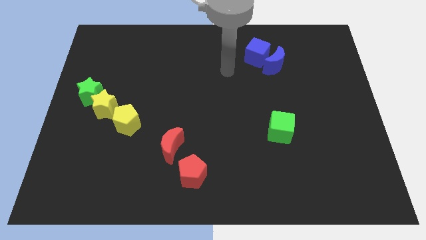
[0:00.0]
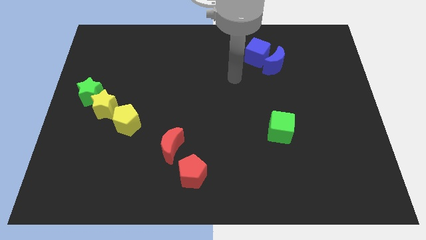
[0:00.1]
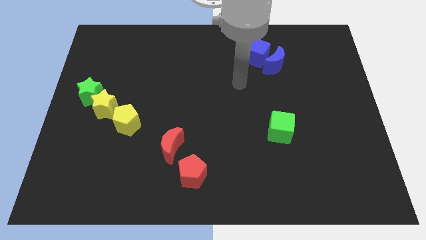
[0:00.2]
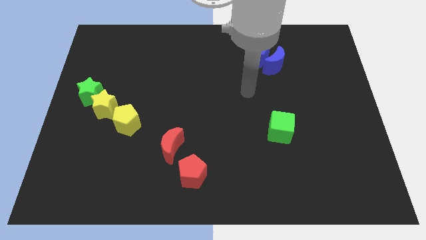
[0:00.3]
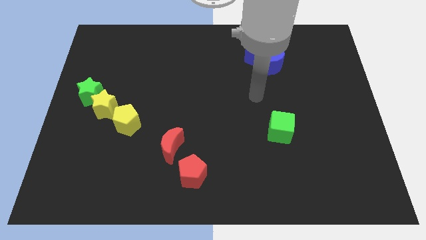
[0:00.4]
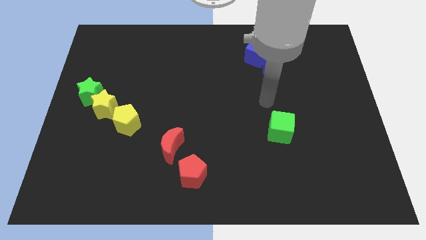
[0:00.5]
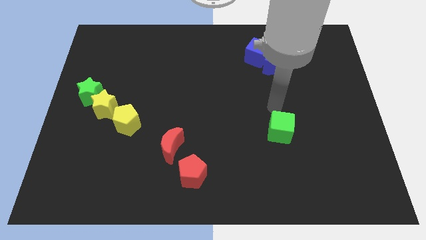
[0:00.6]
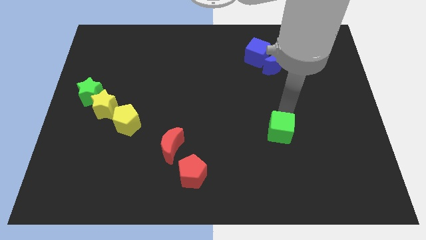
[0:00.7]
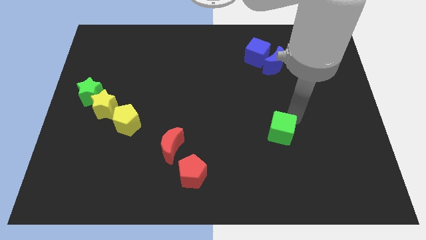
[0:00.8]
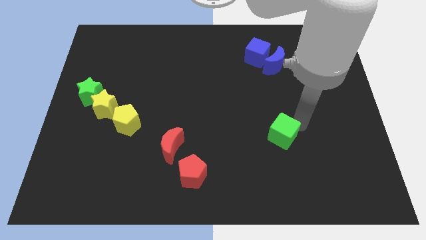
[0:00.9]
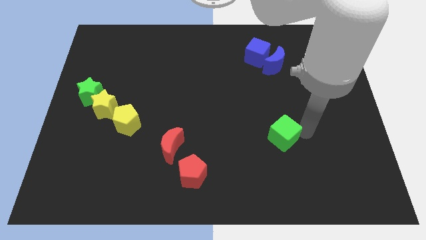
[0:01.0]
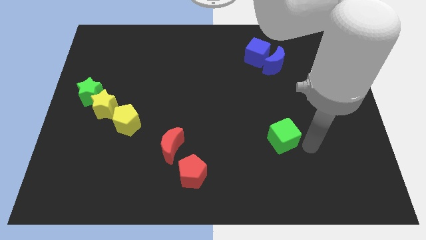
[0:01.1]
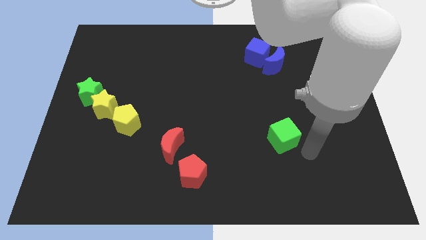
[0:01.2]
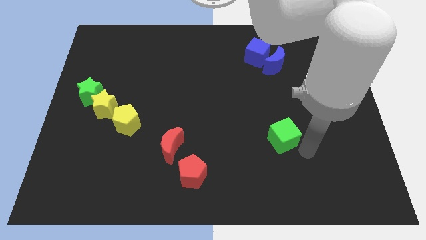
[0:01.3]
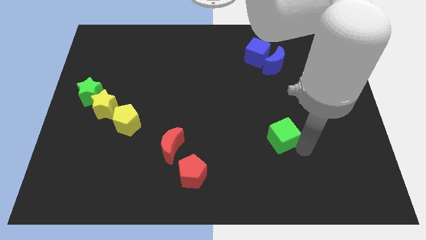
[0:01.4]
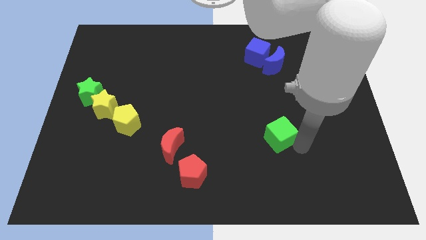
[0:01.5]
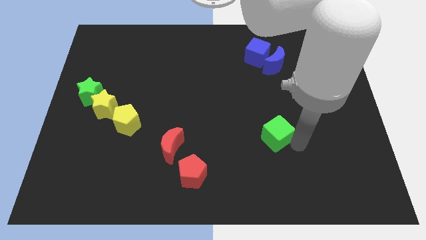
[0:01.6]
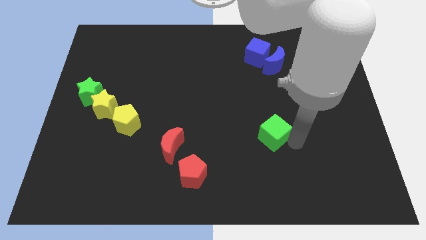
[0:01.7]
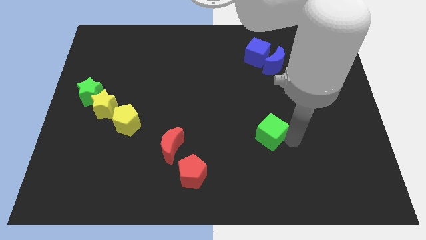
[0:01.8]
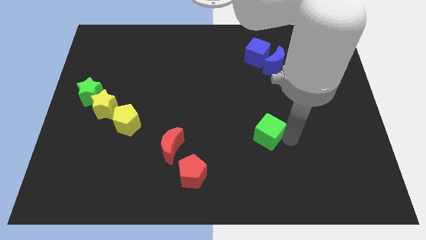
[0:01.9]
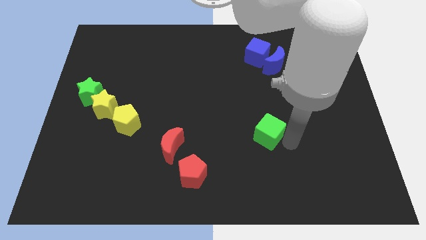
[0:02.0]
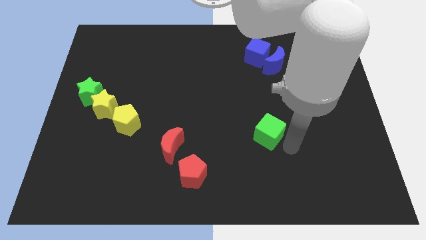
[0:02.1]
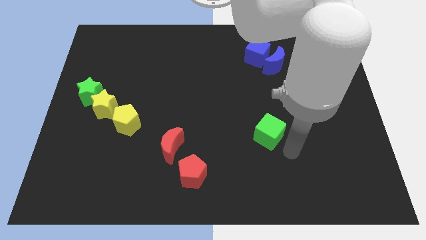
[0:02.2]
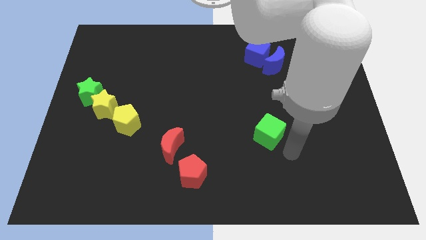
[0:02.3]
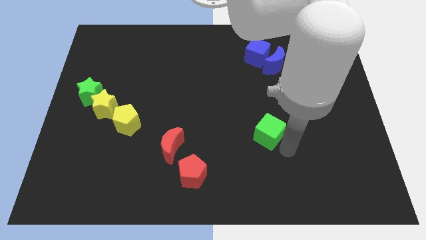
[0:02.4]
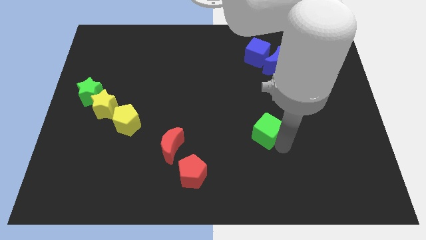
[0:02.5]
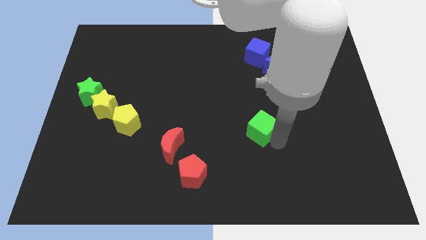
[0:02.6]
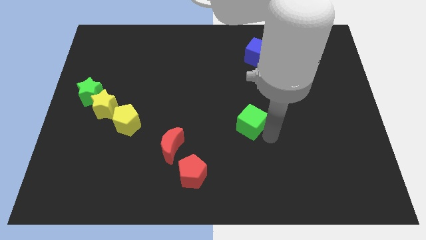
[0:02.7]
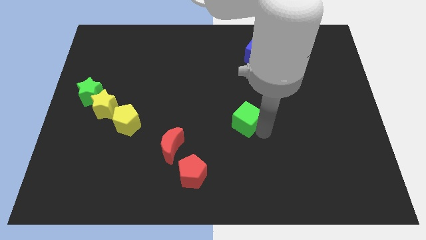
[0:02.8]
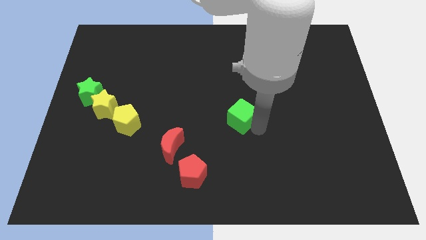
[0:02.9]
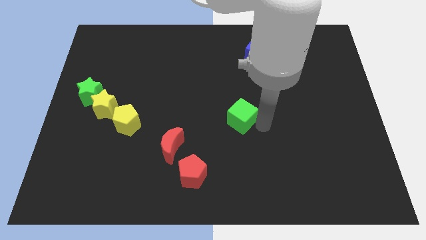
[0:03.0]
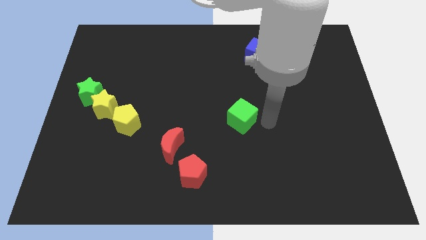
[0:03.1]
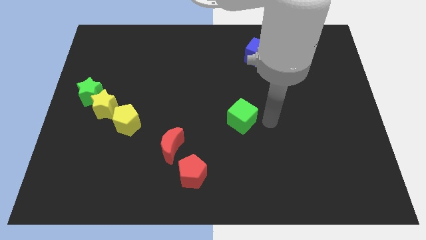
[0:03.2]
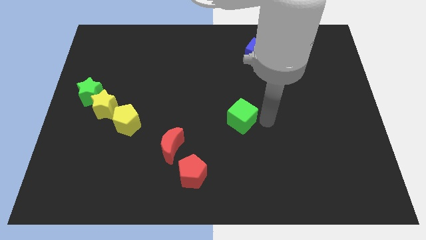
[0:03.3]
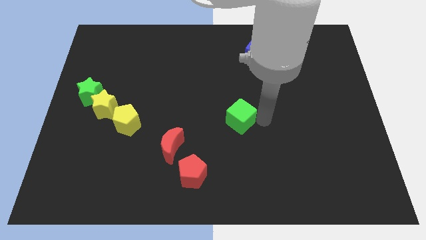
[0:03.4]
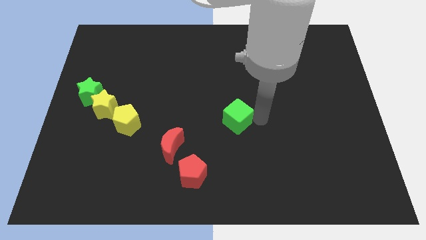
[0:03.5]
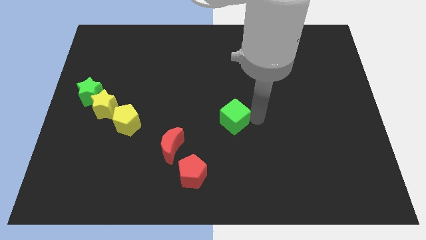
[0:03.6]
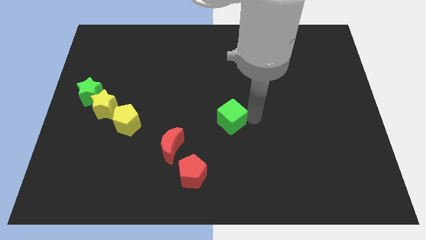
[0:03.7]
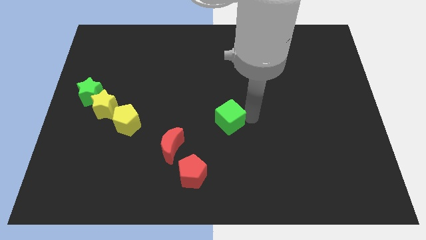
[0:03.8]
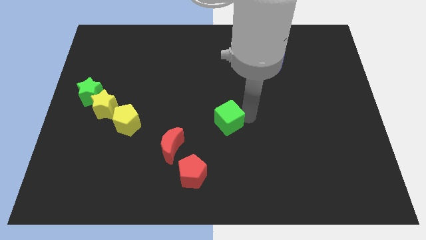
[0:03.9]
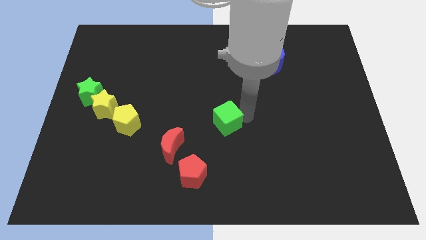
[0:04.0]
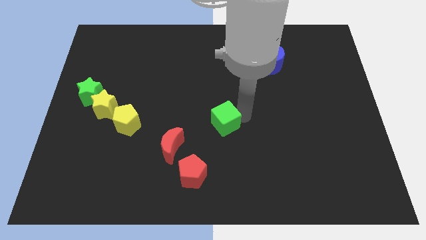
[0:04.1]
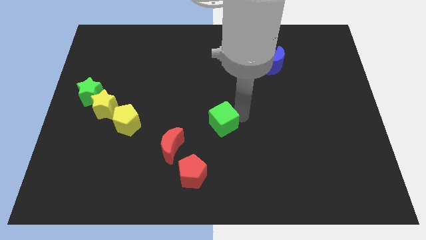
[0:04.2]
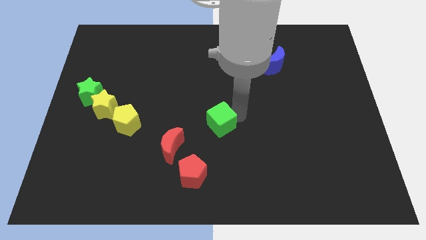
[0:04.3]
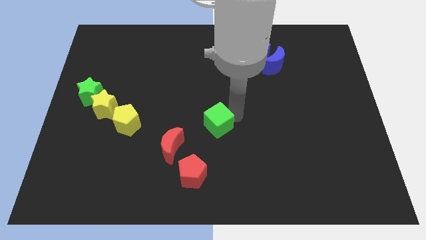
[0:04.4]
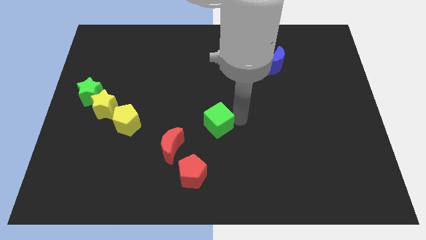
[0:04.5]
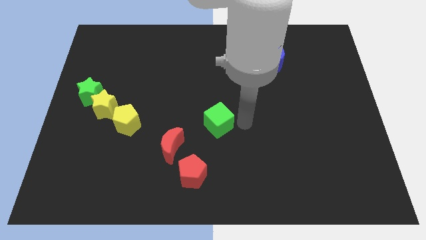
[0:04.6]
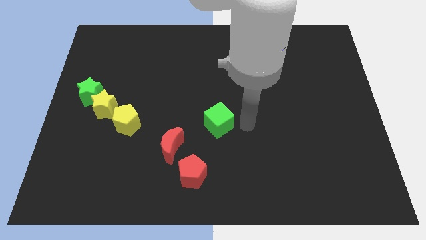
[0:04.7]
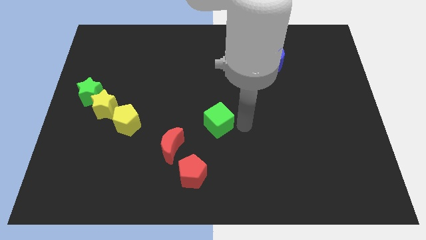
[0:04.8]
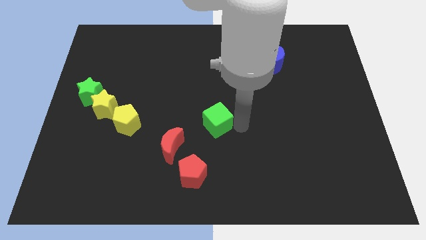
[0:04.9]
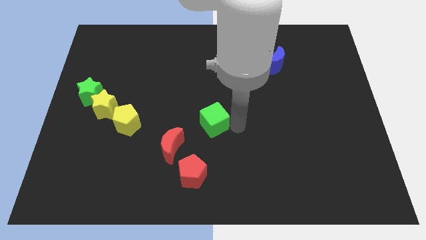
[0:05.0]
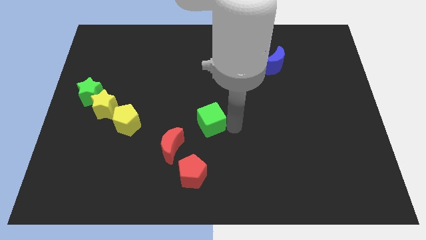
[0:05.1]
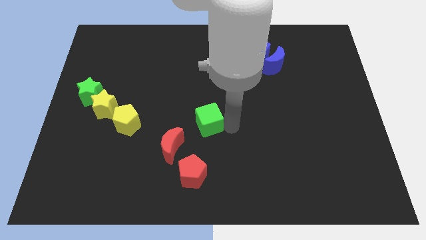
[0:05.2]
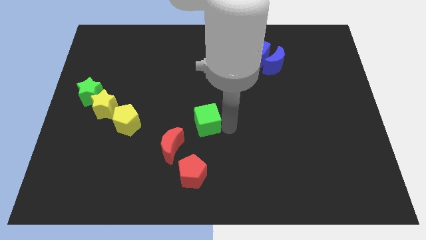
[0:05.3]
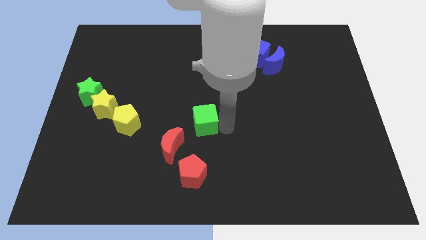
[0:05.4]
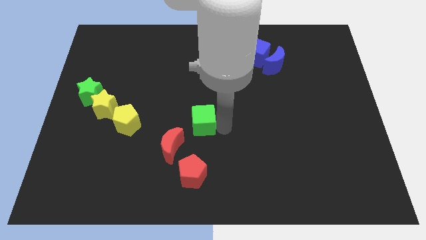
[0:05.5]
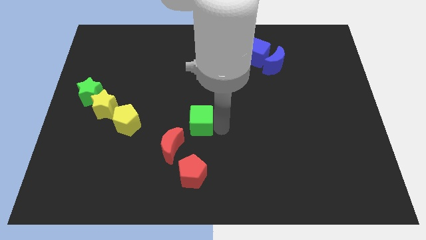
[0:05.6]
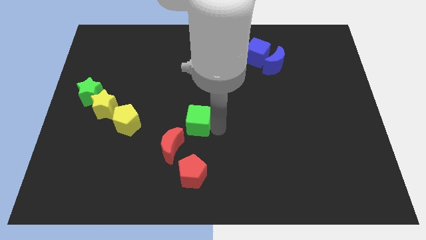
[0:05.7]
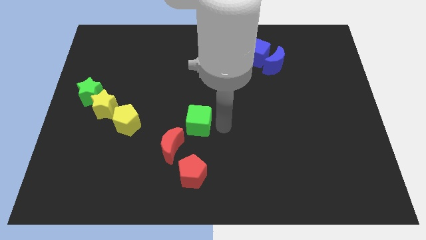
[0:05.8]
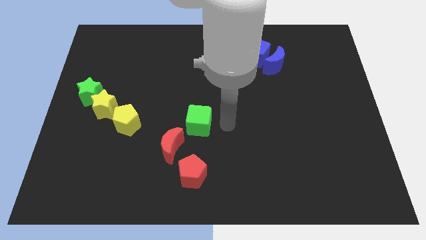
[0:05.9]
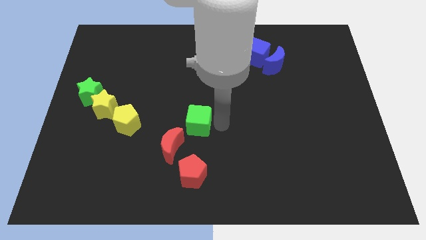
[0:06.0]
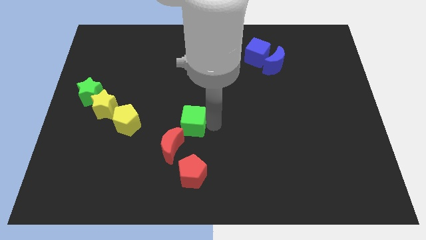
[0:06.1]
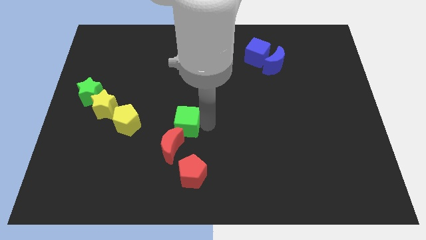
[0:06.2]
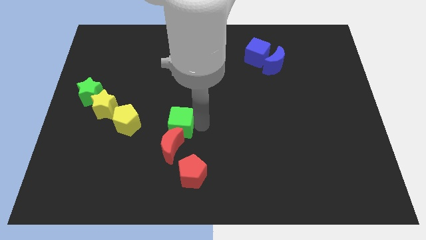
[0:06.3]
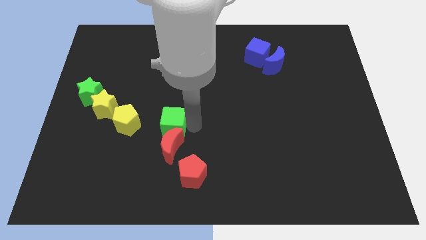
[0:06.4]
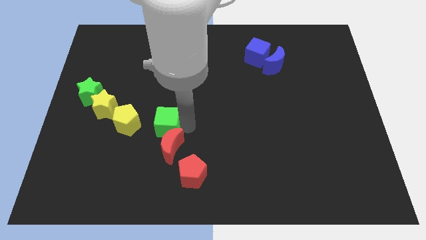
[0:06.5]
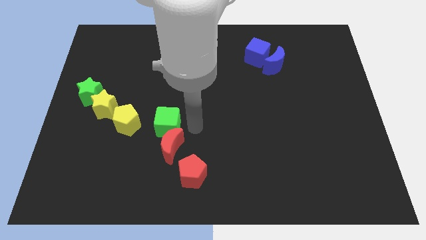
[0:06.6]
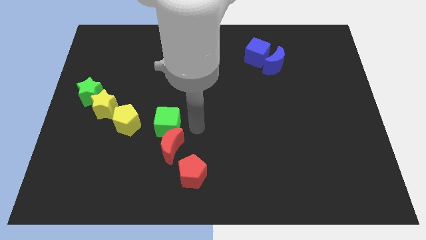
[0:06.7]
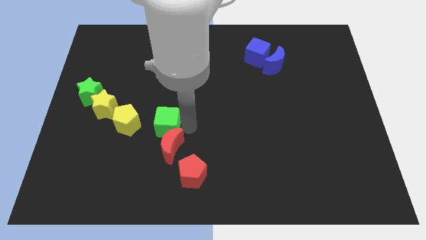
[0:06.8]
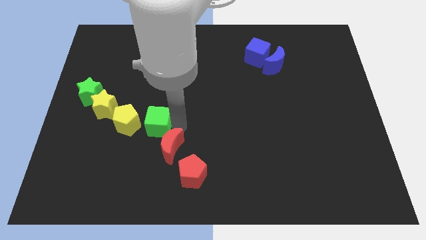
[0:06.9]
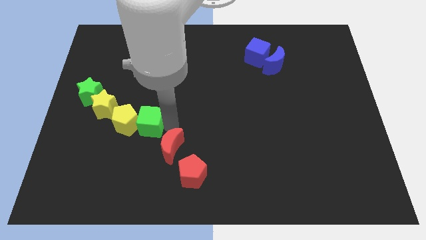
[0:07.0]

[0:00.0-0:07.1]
move the green cube to the yellow pentagon
